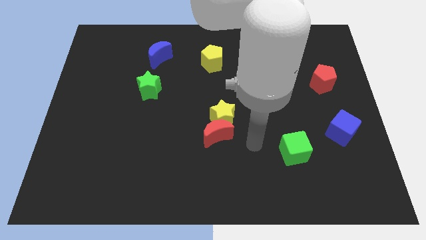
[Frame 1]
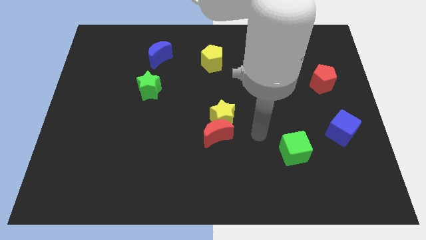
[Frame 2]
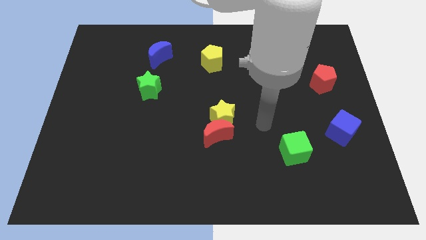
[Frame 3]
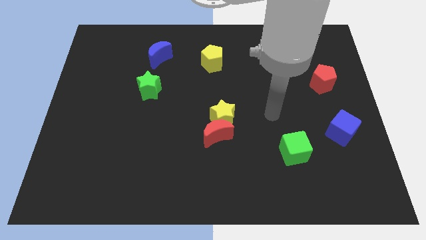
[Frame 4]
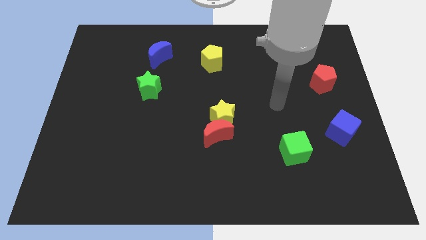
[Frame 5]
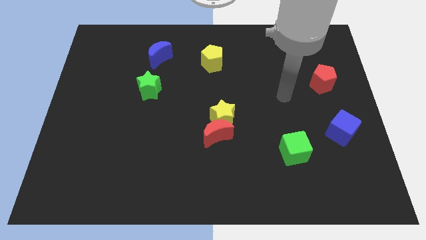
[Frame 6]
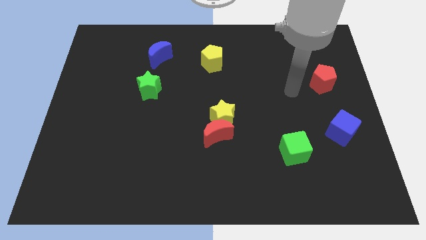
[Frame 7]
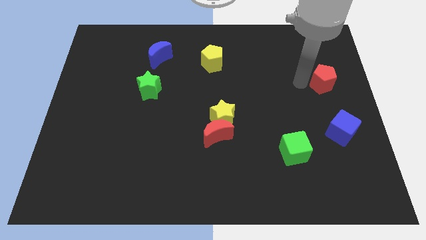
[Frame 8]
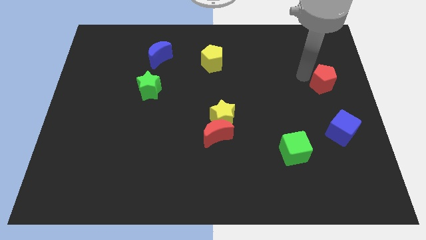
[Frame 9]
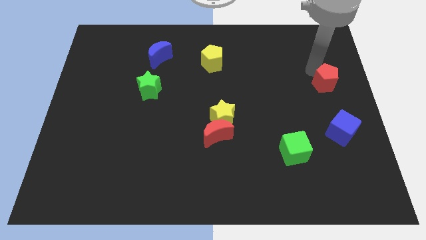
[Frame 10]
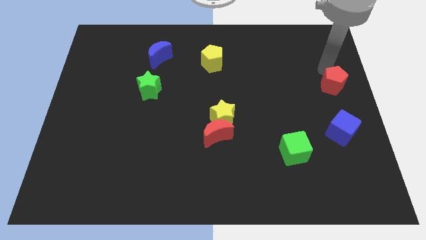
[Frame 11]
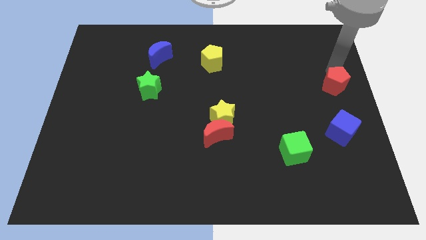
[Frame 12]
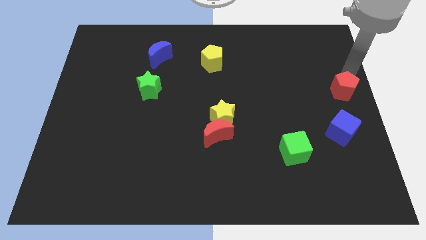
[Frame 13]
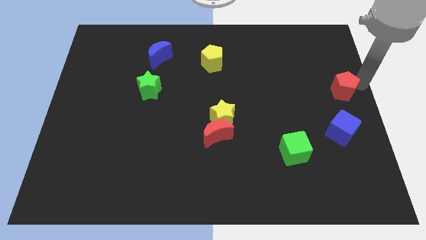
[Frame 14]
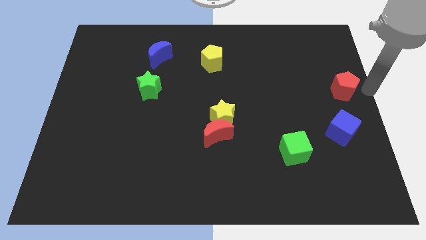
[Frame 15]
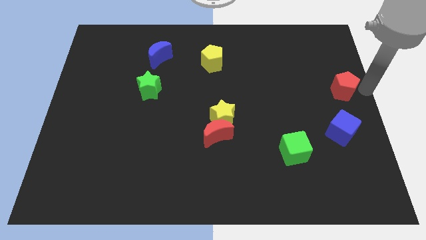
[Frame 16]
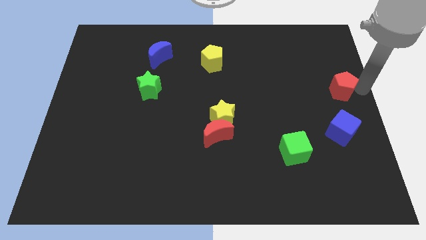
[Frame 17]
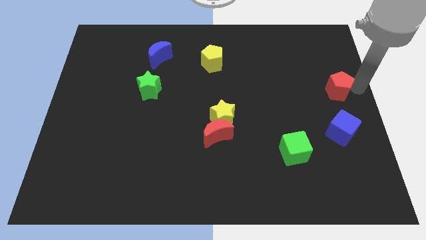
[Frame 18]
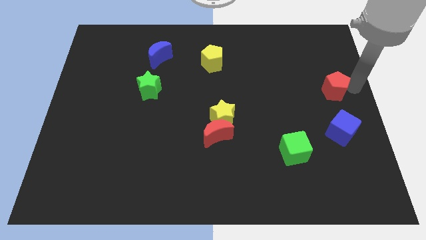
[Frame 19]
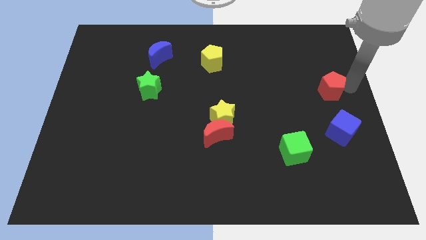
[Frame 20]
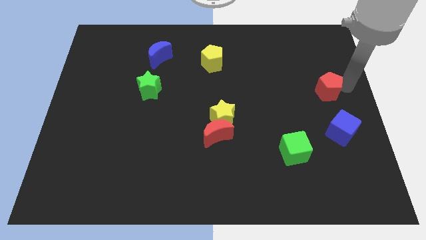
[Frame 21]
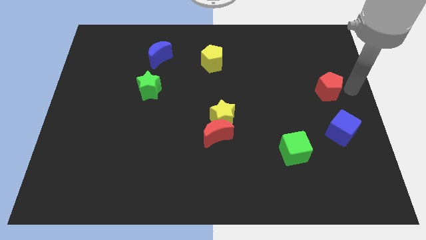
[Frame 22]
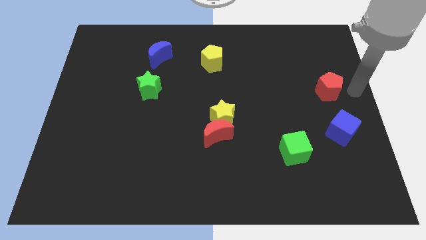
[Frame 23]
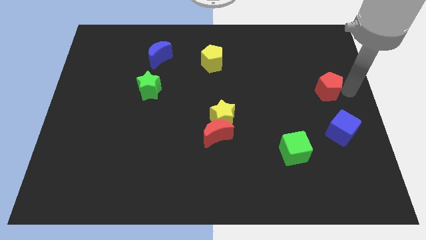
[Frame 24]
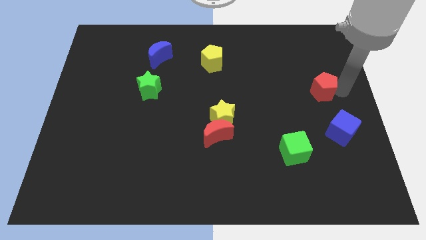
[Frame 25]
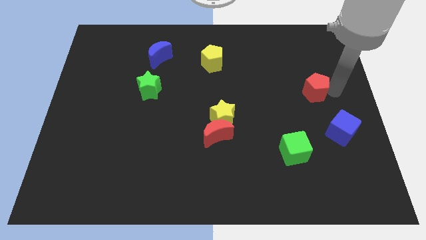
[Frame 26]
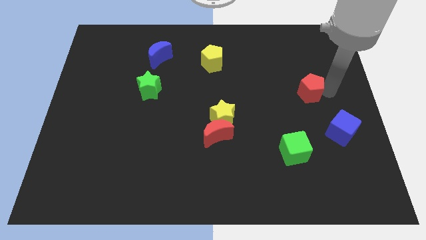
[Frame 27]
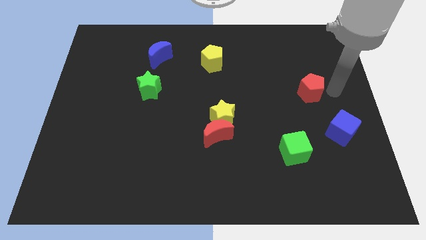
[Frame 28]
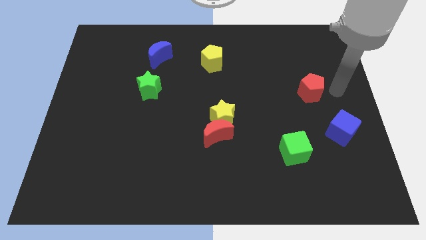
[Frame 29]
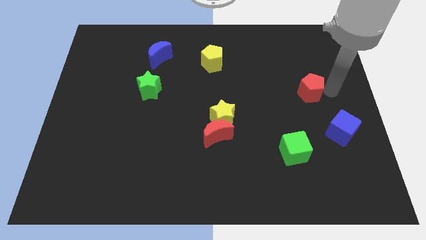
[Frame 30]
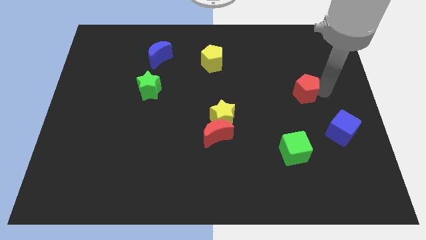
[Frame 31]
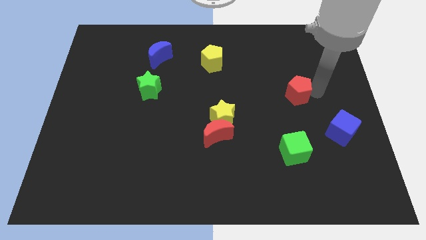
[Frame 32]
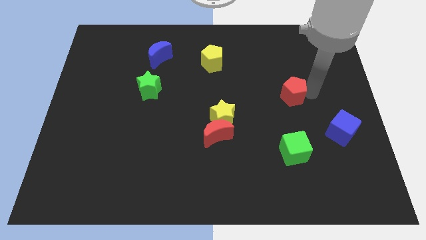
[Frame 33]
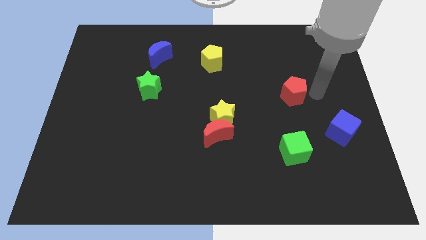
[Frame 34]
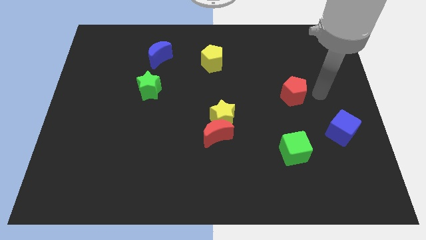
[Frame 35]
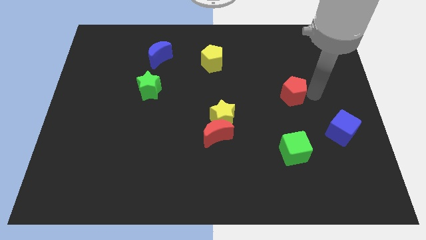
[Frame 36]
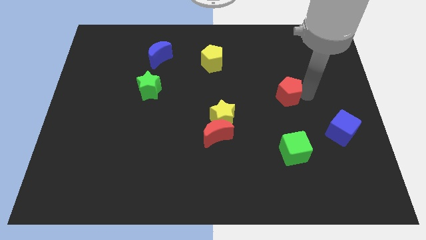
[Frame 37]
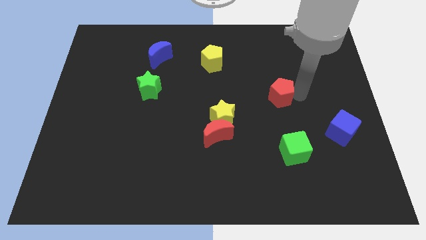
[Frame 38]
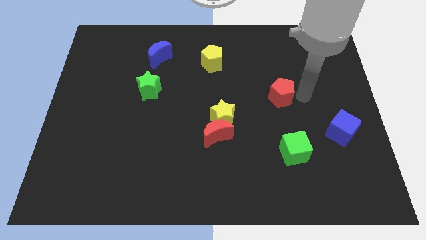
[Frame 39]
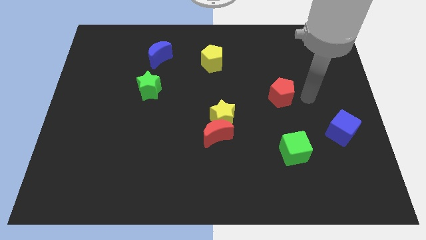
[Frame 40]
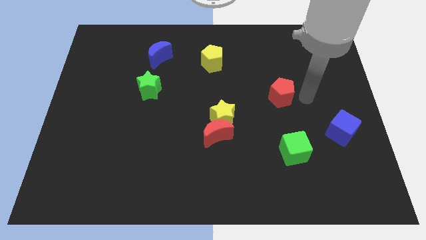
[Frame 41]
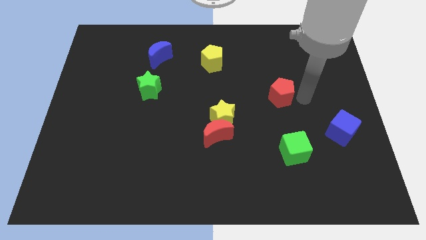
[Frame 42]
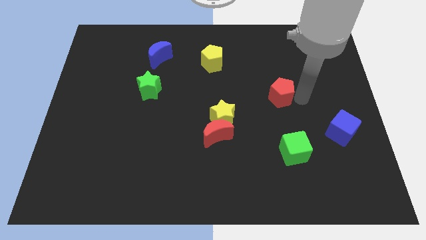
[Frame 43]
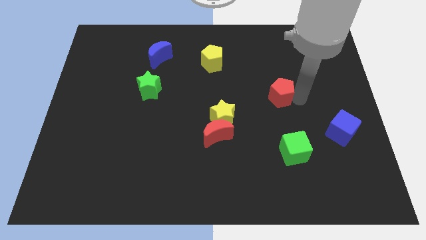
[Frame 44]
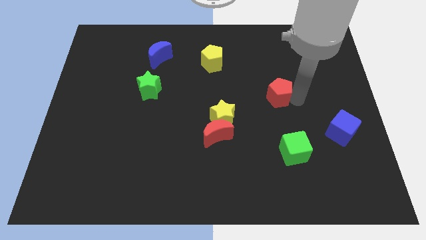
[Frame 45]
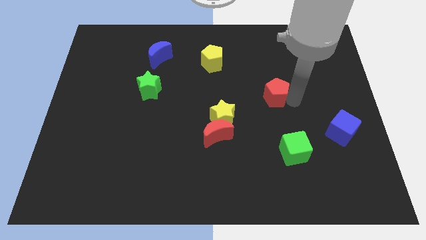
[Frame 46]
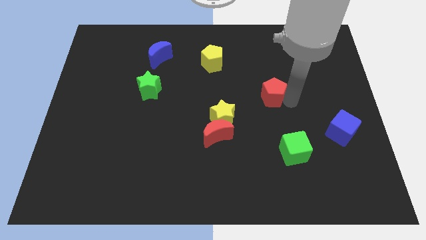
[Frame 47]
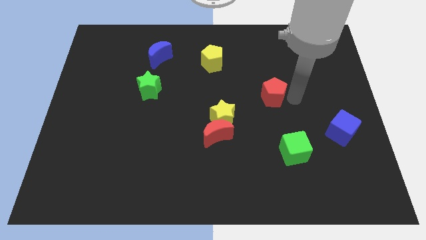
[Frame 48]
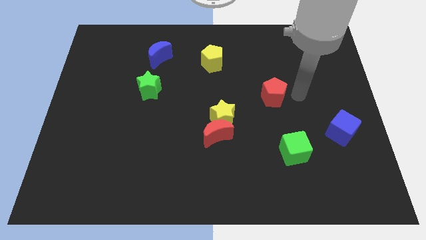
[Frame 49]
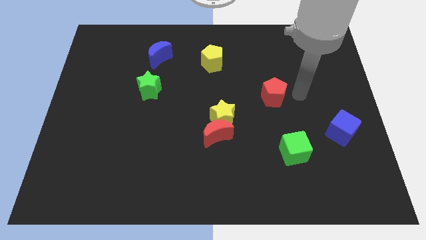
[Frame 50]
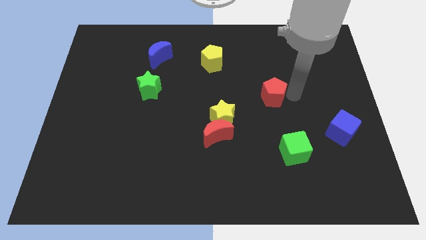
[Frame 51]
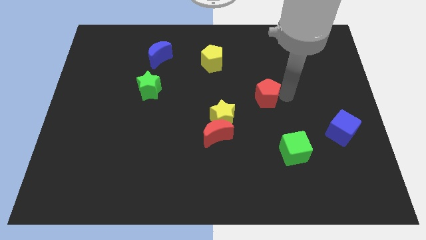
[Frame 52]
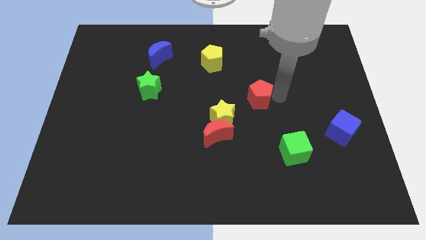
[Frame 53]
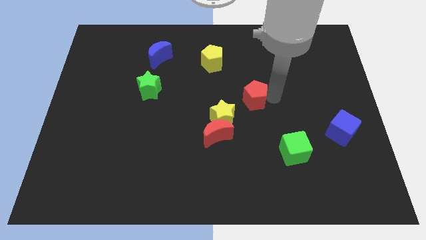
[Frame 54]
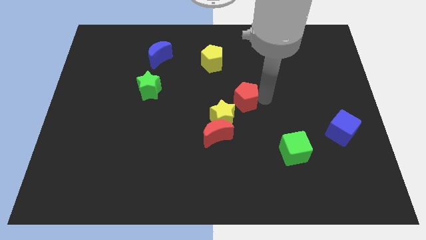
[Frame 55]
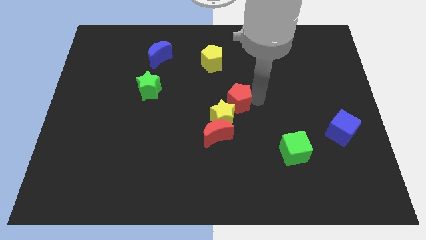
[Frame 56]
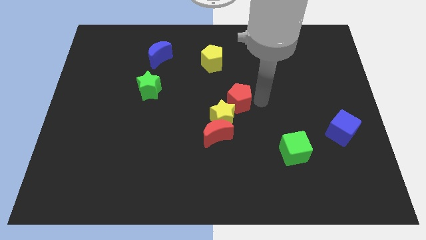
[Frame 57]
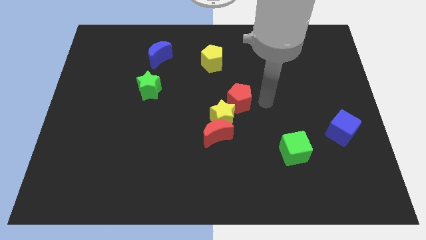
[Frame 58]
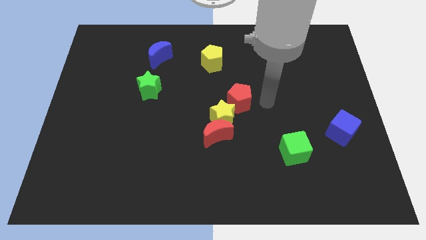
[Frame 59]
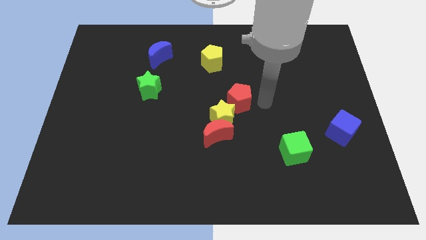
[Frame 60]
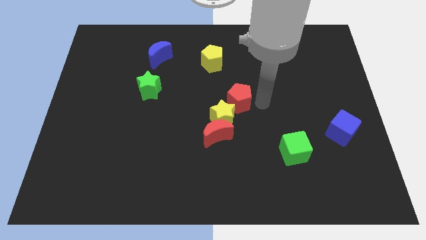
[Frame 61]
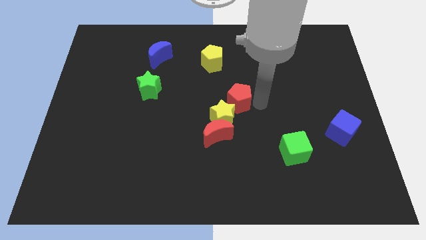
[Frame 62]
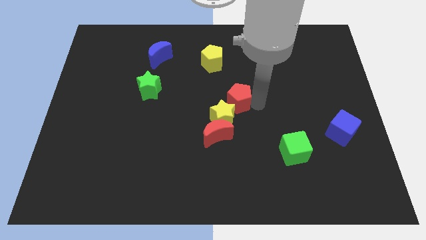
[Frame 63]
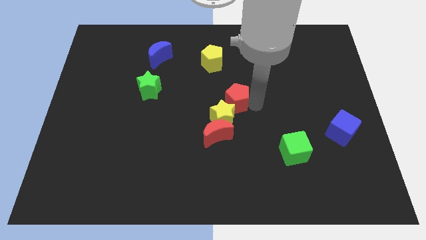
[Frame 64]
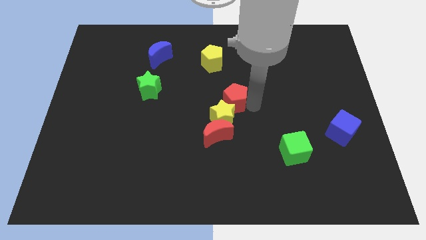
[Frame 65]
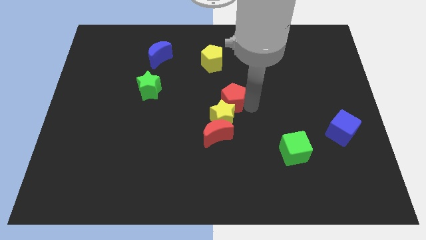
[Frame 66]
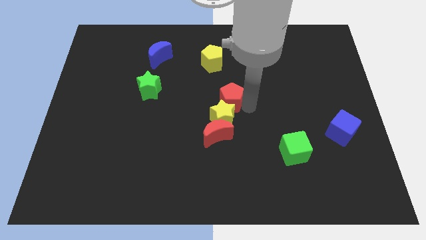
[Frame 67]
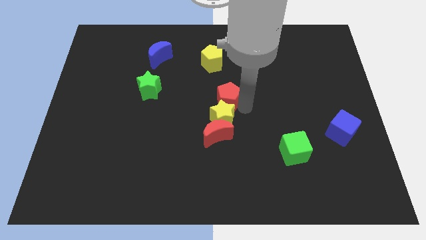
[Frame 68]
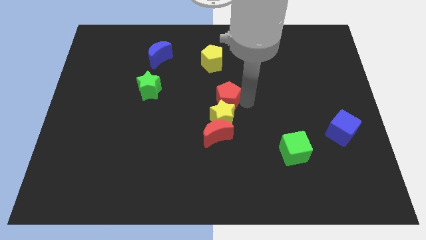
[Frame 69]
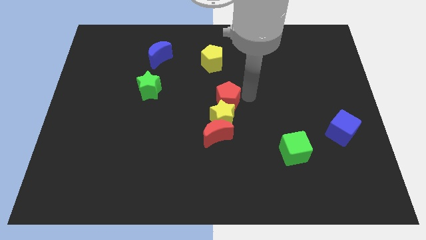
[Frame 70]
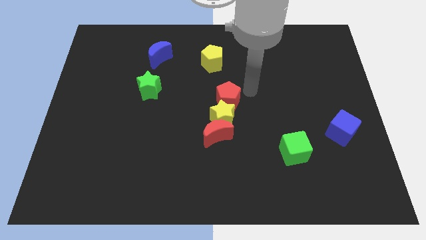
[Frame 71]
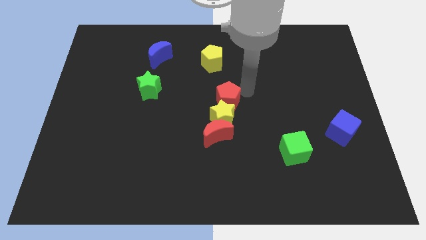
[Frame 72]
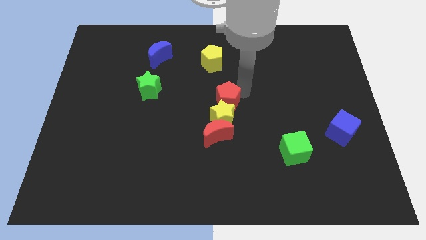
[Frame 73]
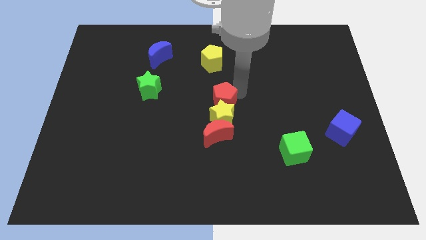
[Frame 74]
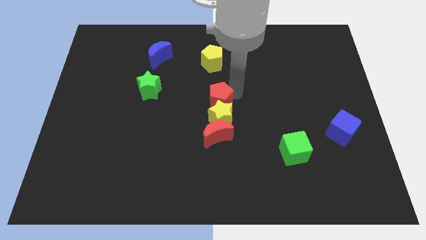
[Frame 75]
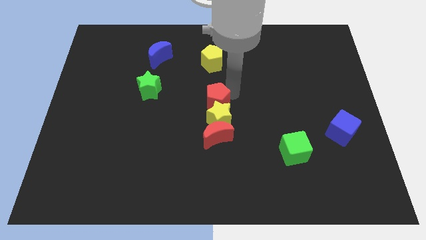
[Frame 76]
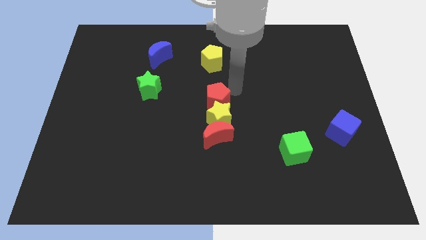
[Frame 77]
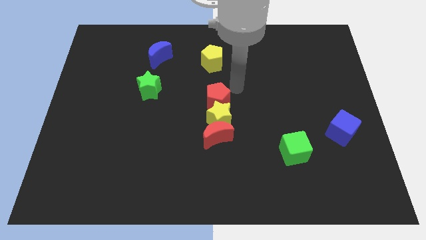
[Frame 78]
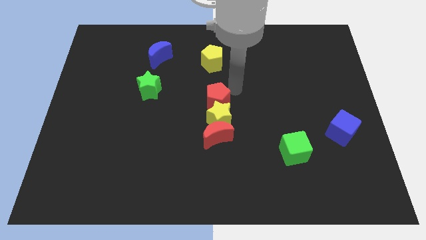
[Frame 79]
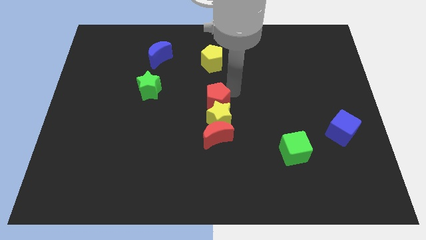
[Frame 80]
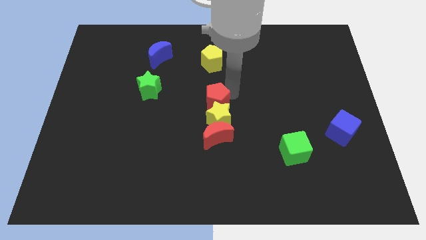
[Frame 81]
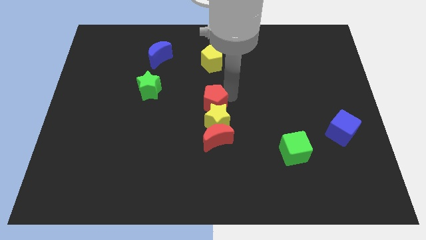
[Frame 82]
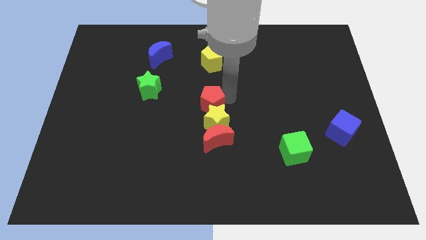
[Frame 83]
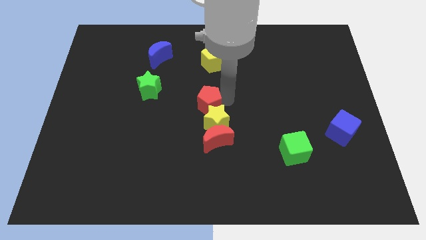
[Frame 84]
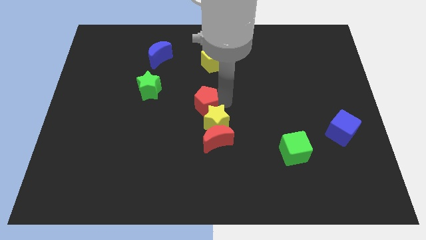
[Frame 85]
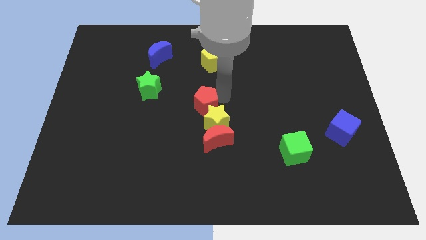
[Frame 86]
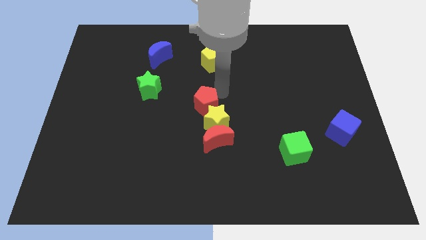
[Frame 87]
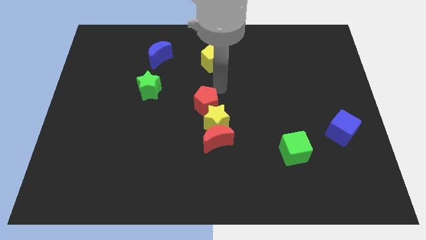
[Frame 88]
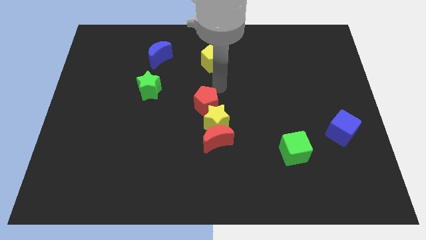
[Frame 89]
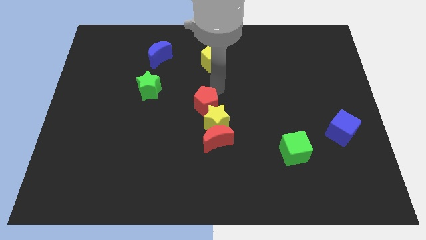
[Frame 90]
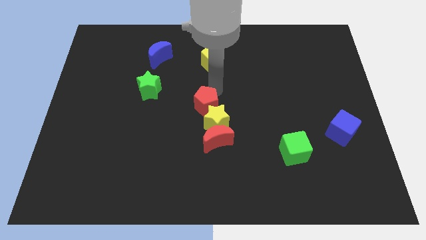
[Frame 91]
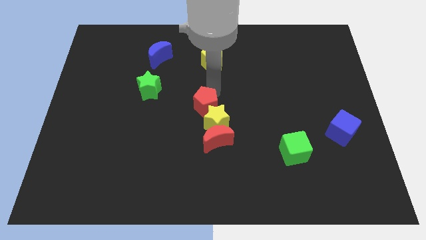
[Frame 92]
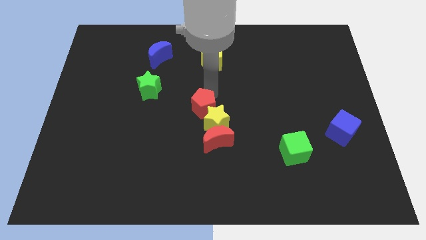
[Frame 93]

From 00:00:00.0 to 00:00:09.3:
move the red pentagon diagonally up and to the left of the red moon
